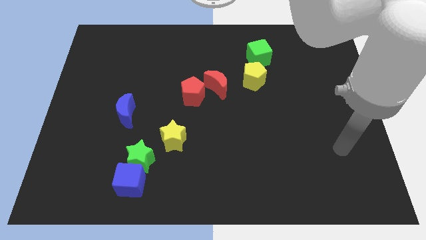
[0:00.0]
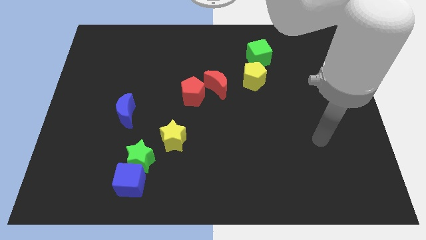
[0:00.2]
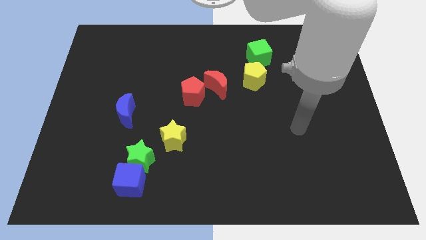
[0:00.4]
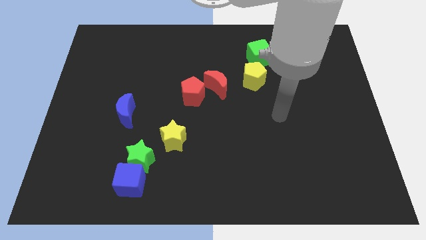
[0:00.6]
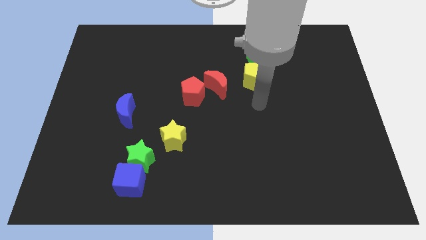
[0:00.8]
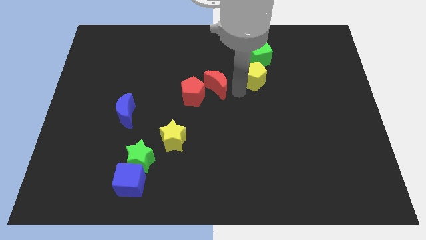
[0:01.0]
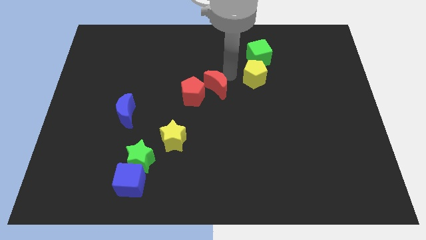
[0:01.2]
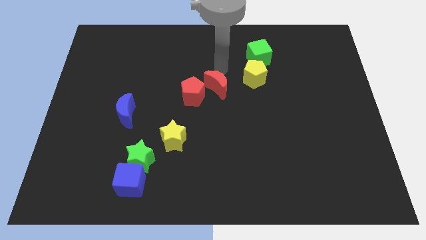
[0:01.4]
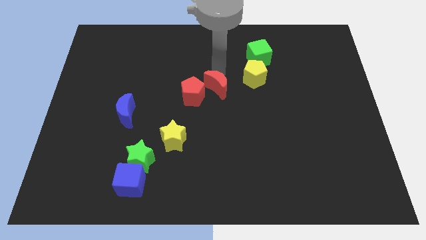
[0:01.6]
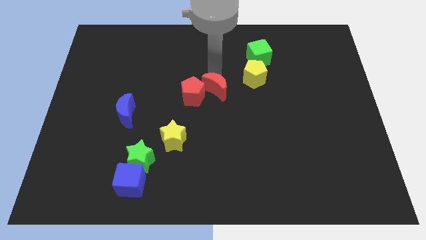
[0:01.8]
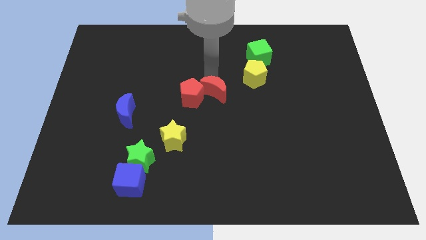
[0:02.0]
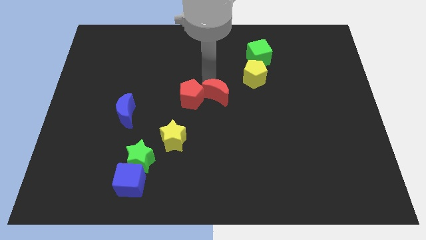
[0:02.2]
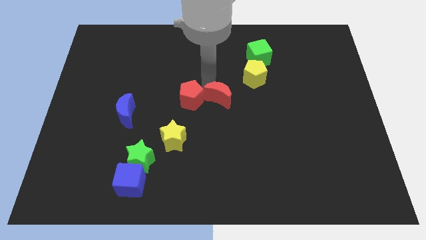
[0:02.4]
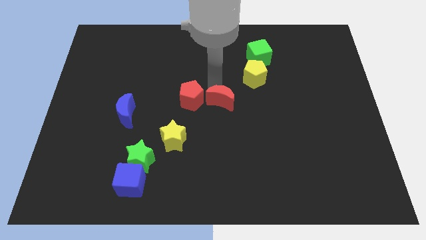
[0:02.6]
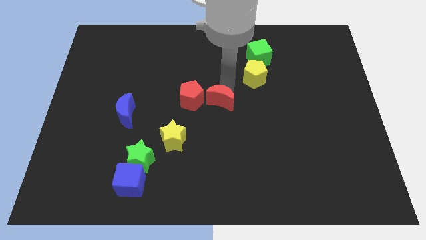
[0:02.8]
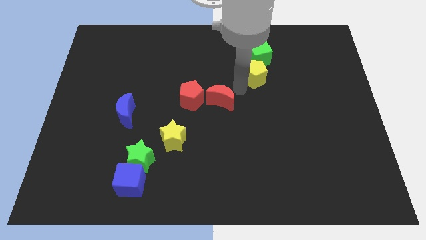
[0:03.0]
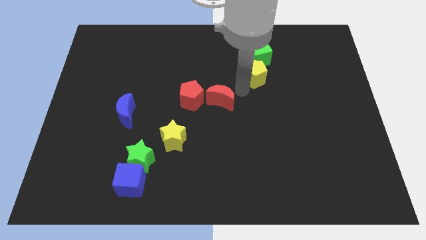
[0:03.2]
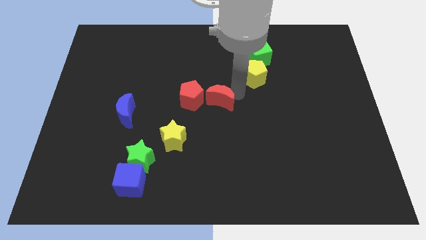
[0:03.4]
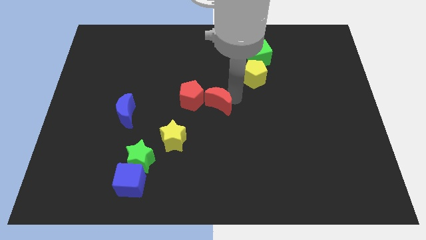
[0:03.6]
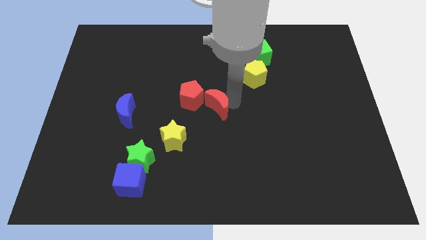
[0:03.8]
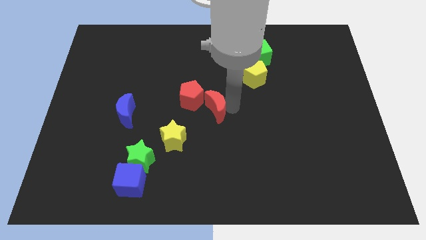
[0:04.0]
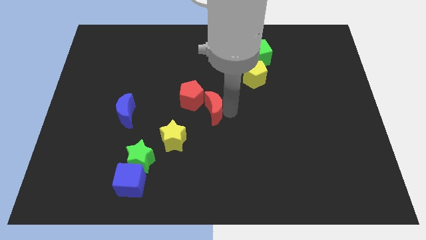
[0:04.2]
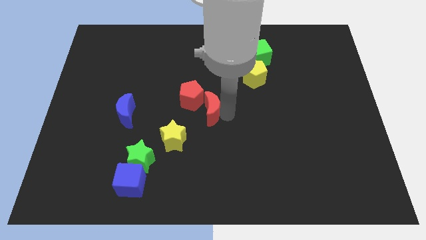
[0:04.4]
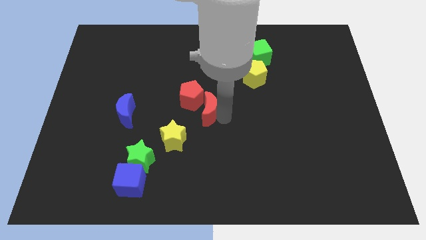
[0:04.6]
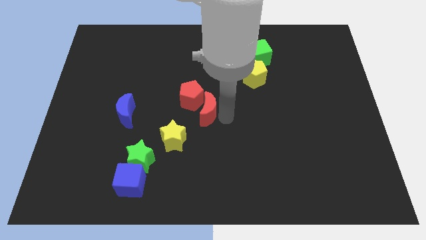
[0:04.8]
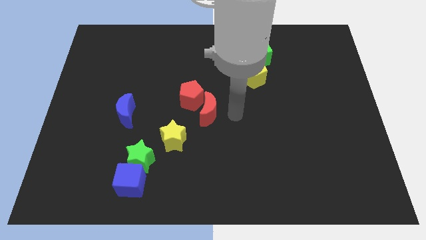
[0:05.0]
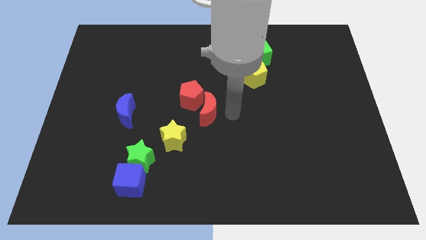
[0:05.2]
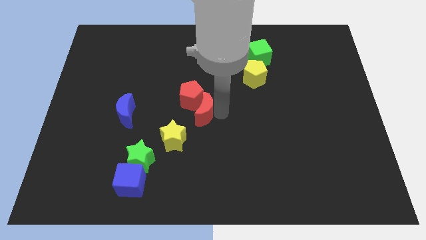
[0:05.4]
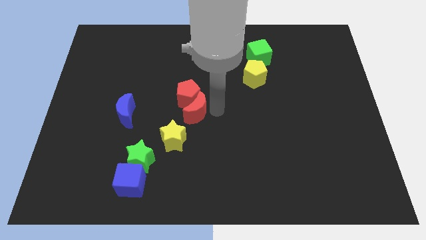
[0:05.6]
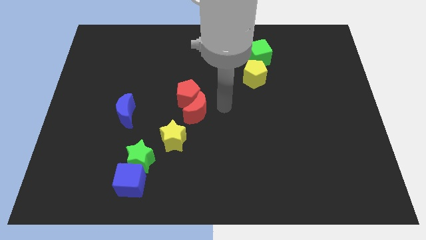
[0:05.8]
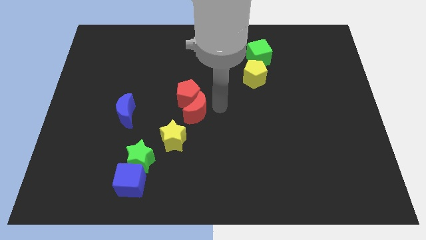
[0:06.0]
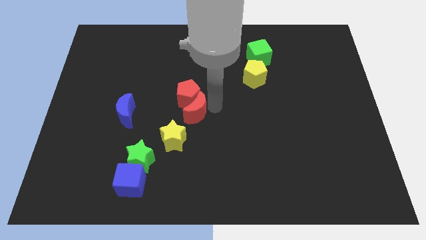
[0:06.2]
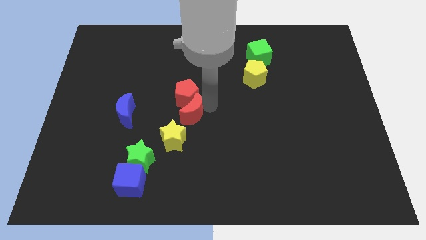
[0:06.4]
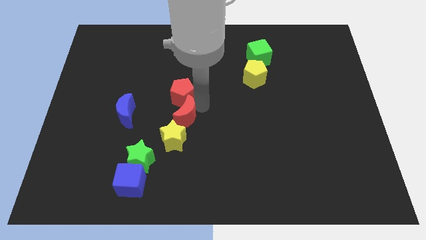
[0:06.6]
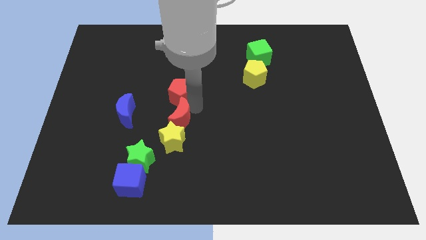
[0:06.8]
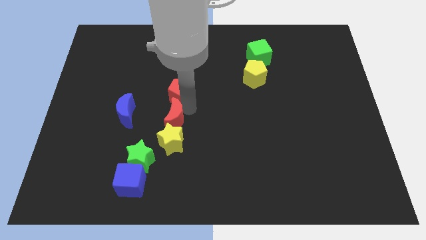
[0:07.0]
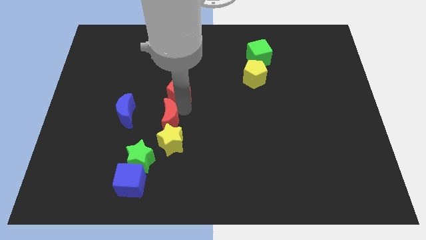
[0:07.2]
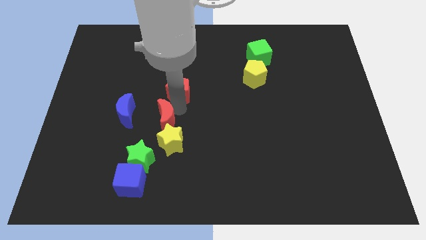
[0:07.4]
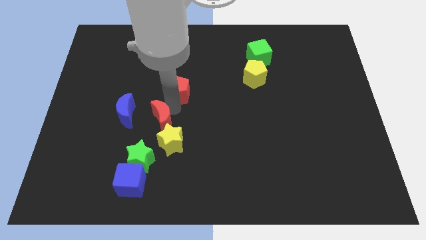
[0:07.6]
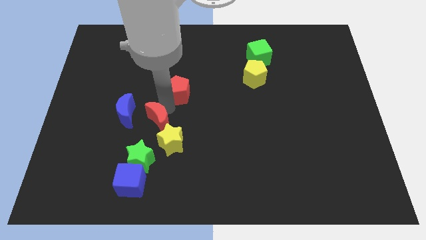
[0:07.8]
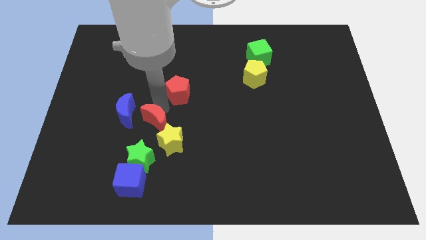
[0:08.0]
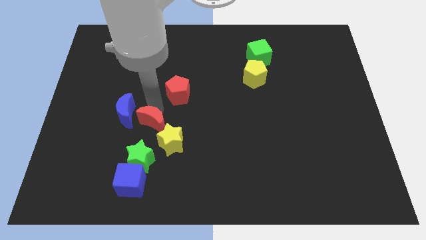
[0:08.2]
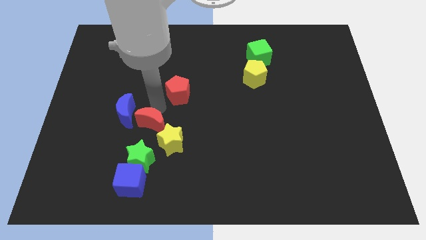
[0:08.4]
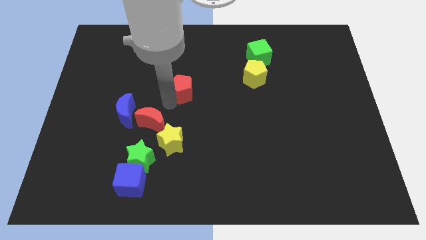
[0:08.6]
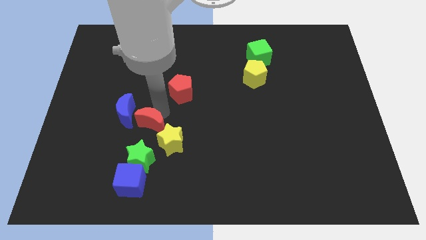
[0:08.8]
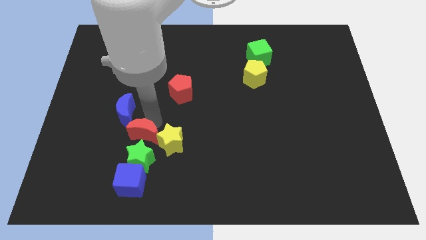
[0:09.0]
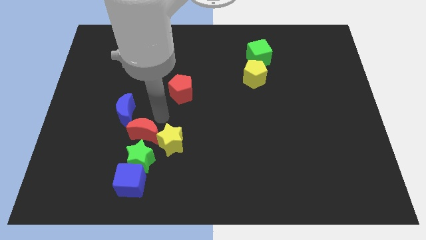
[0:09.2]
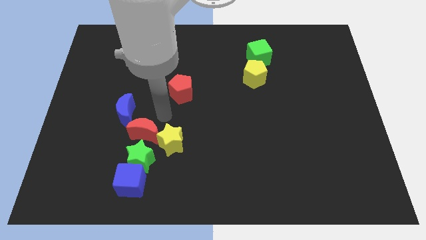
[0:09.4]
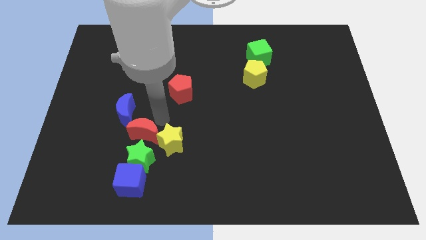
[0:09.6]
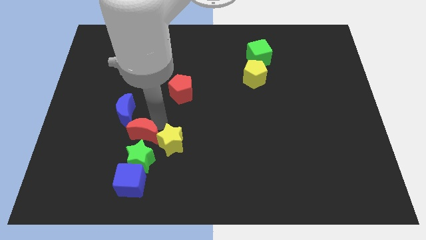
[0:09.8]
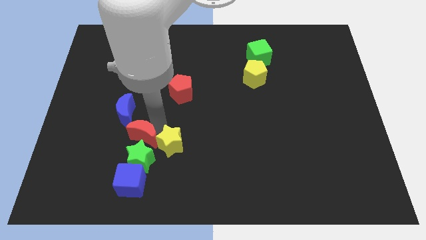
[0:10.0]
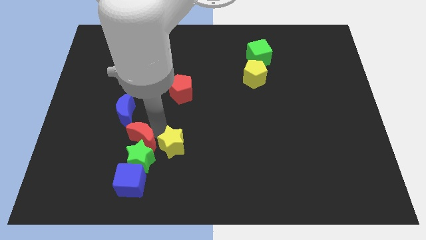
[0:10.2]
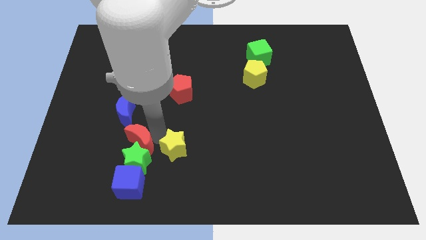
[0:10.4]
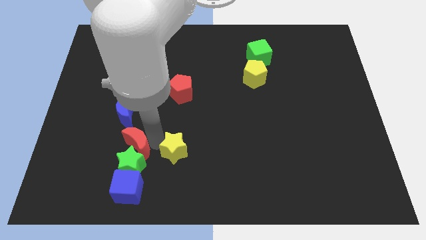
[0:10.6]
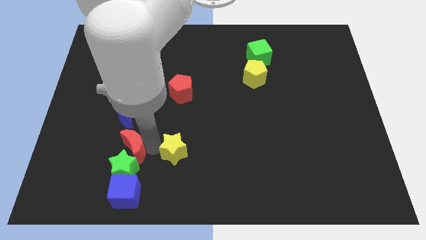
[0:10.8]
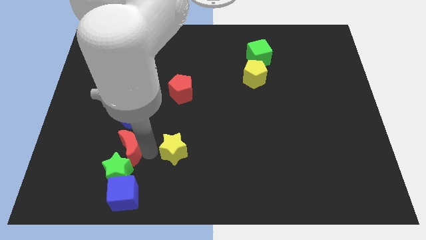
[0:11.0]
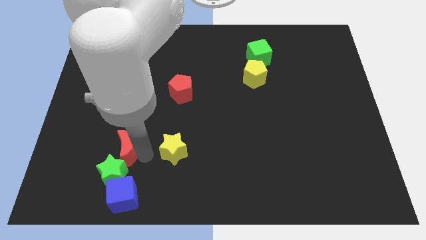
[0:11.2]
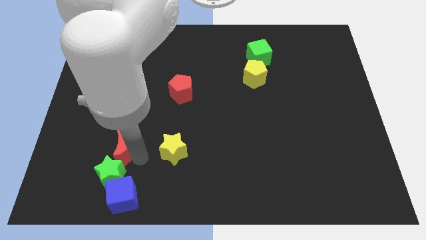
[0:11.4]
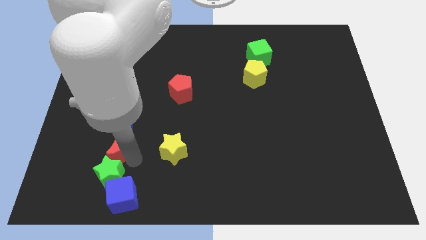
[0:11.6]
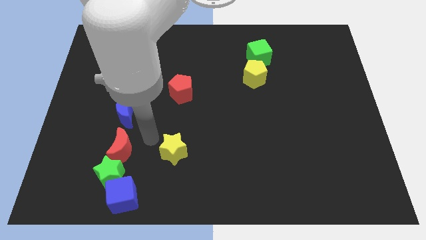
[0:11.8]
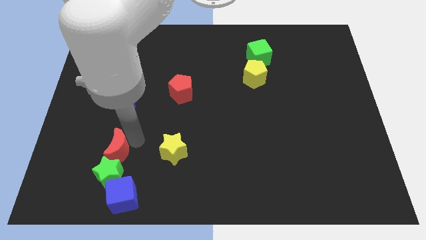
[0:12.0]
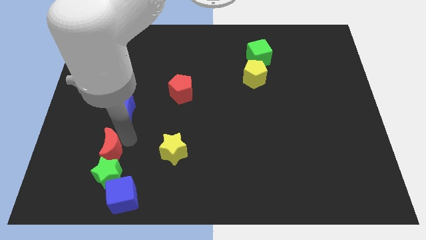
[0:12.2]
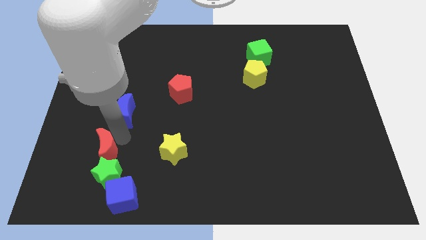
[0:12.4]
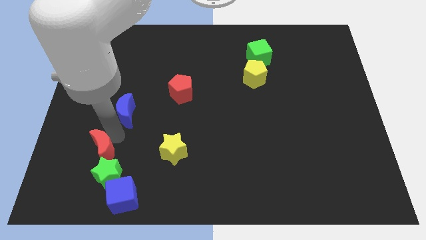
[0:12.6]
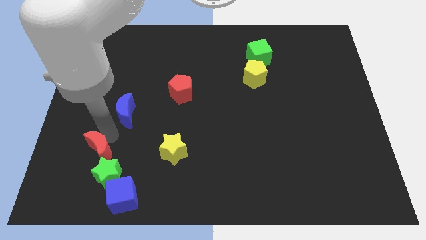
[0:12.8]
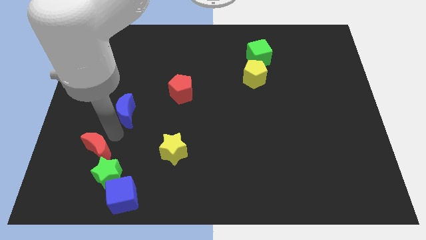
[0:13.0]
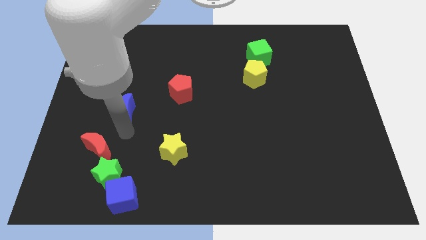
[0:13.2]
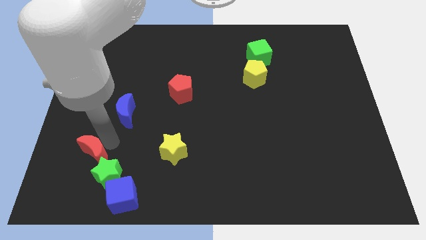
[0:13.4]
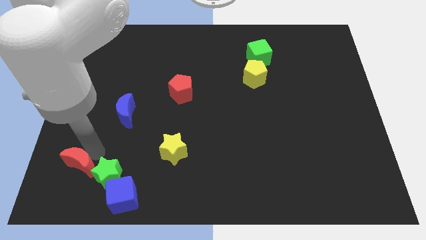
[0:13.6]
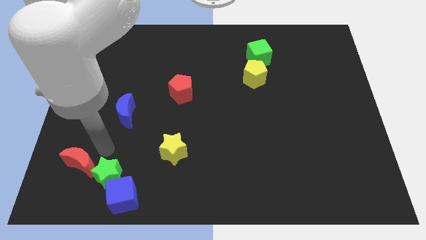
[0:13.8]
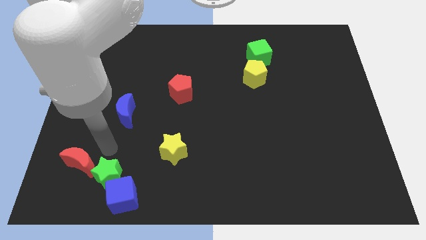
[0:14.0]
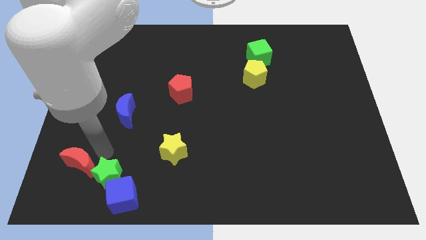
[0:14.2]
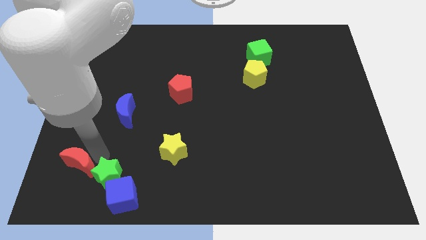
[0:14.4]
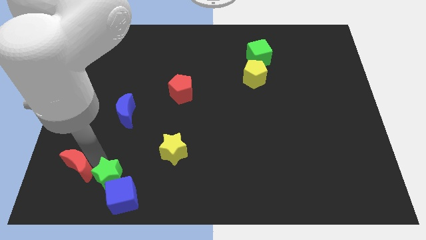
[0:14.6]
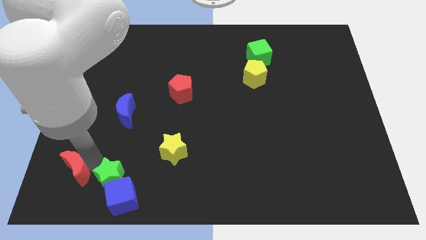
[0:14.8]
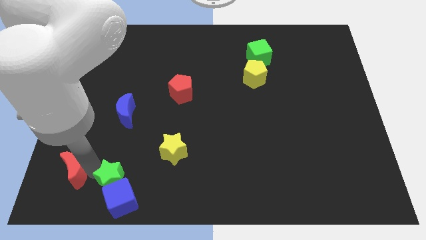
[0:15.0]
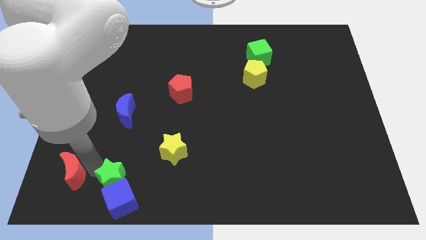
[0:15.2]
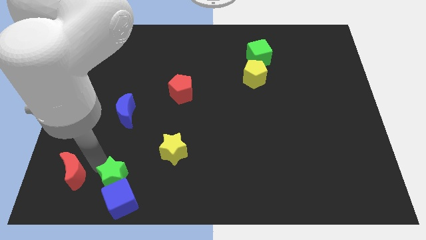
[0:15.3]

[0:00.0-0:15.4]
push the red moon left of the green star

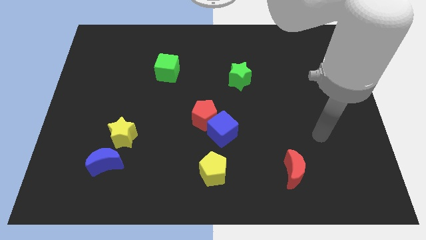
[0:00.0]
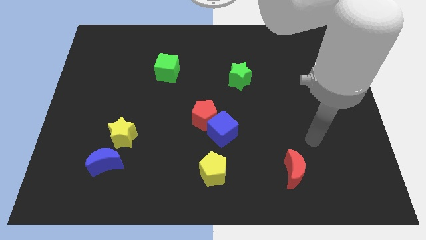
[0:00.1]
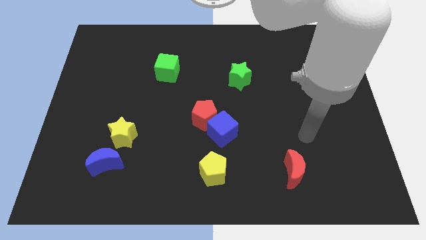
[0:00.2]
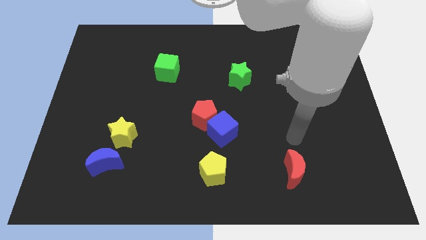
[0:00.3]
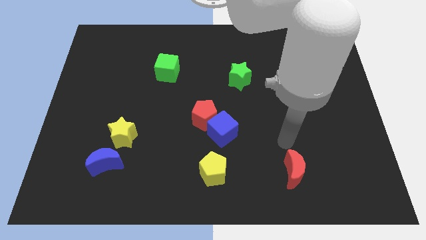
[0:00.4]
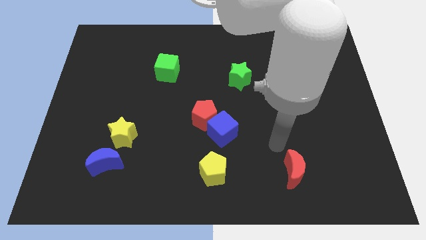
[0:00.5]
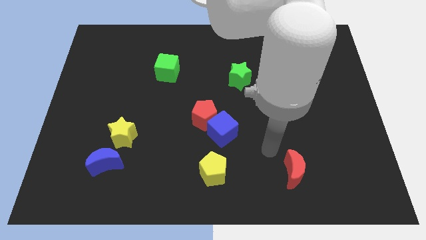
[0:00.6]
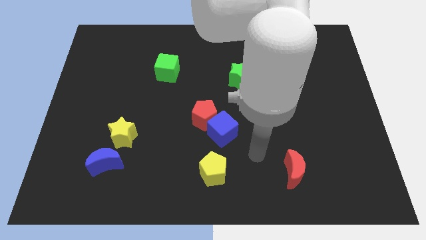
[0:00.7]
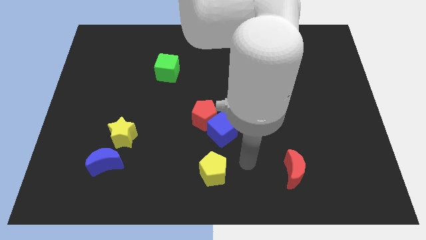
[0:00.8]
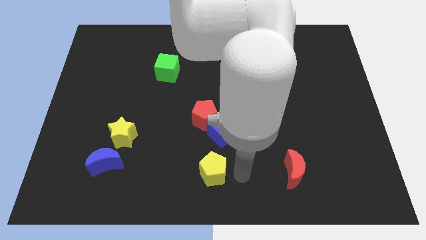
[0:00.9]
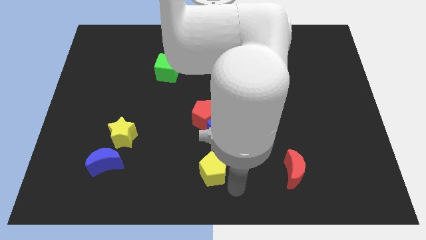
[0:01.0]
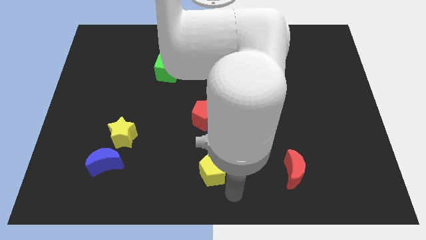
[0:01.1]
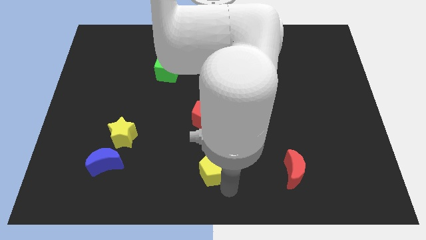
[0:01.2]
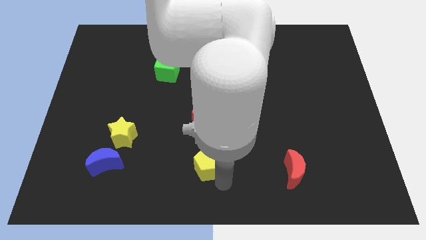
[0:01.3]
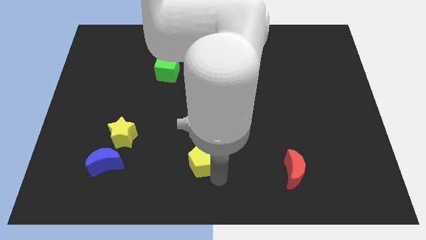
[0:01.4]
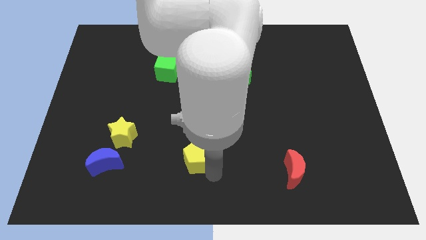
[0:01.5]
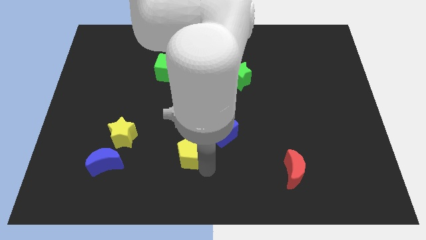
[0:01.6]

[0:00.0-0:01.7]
slide the yellow pentagon to the bottom left side of the red pentagon
